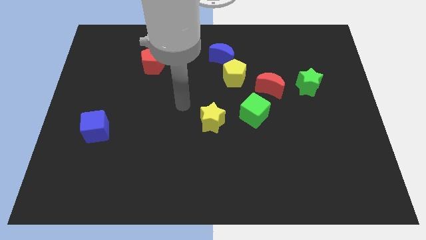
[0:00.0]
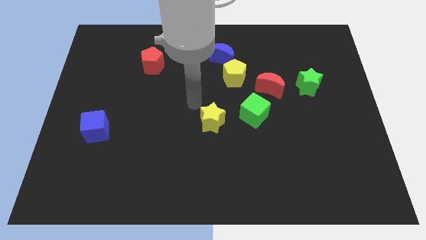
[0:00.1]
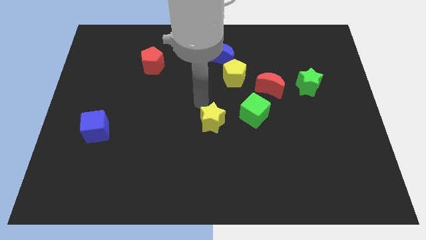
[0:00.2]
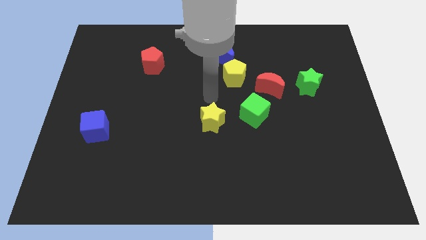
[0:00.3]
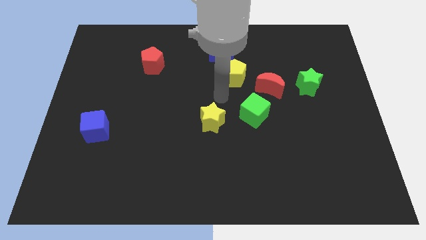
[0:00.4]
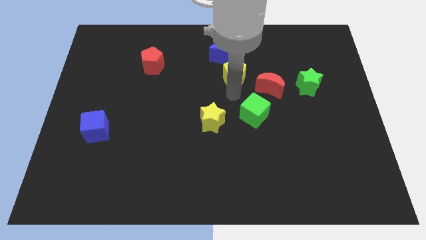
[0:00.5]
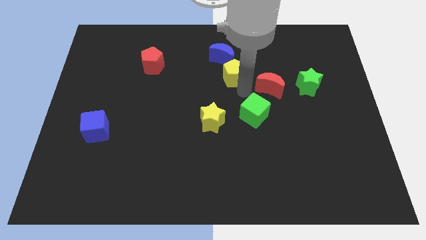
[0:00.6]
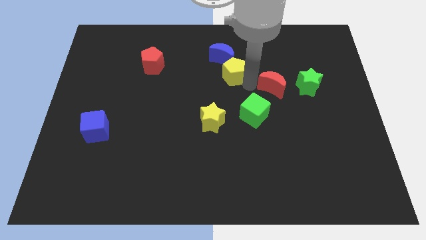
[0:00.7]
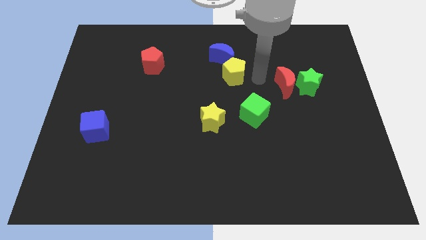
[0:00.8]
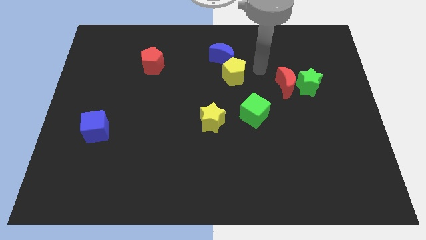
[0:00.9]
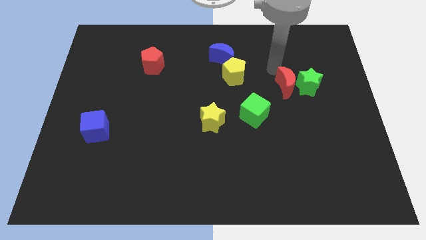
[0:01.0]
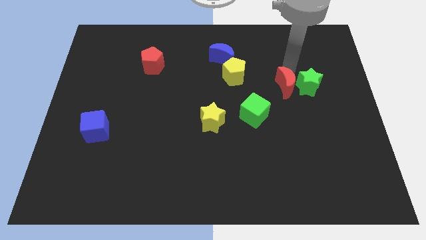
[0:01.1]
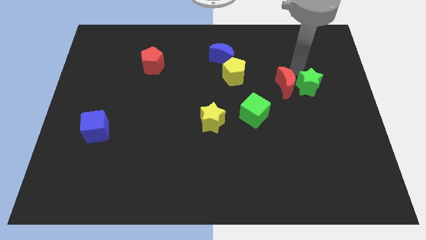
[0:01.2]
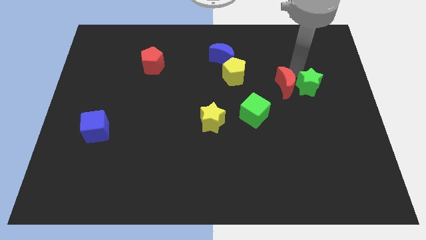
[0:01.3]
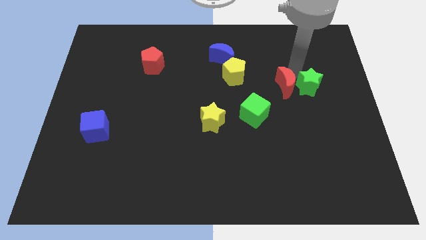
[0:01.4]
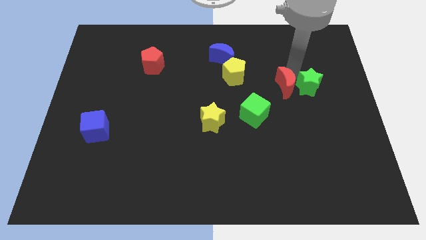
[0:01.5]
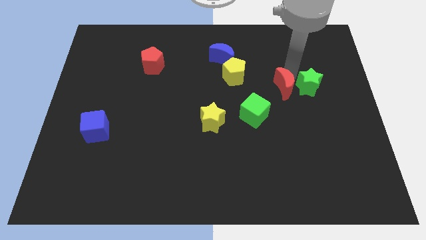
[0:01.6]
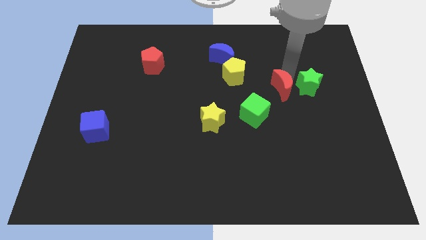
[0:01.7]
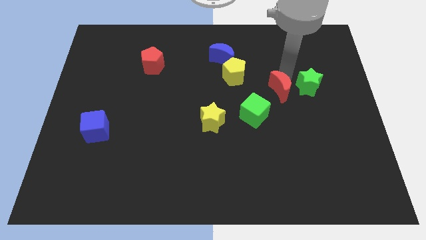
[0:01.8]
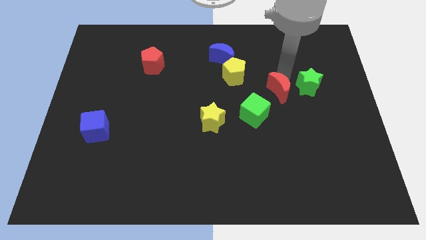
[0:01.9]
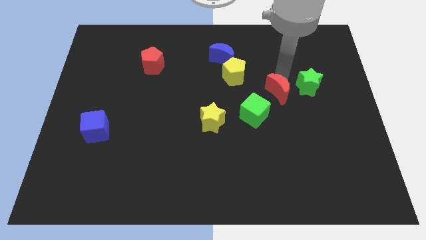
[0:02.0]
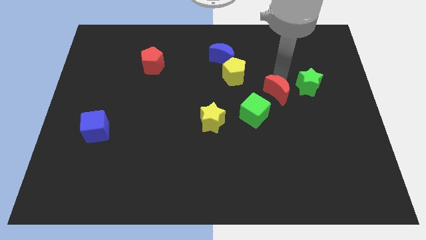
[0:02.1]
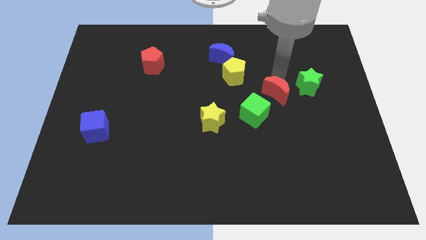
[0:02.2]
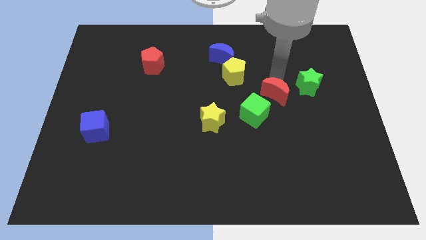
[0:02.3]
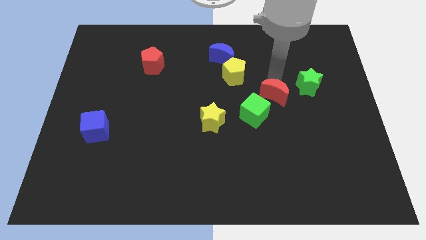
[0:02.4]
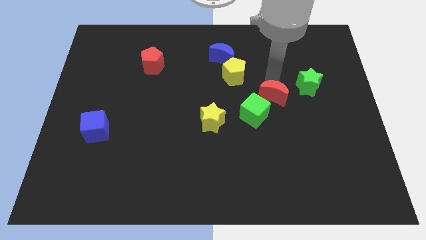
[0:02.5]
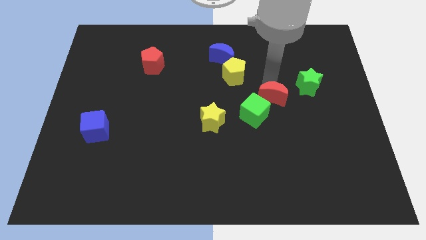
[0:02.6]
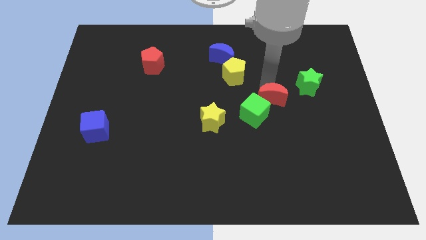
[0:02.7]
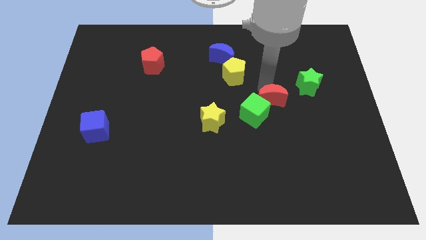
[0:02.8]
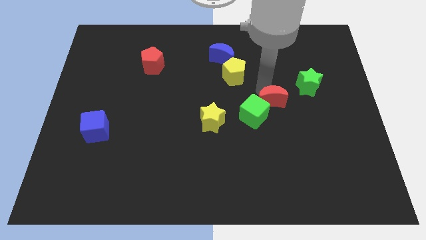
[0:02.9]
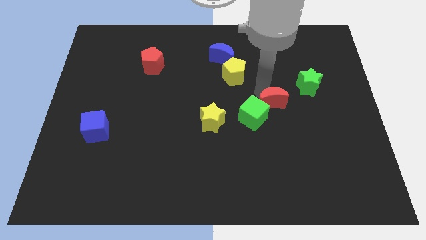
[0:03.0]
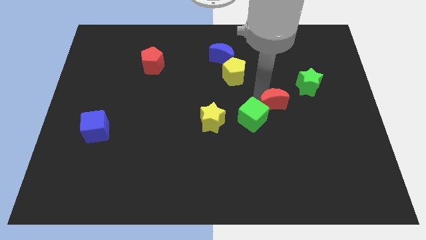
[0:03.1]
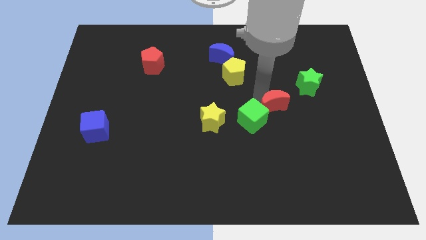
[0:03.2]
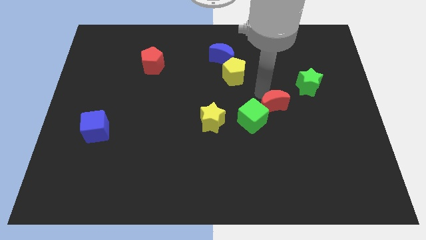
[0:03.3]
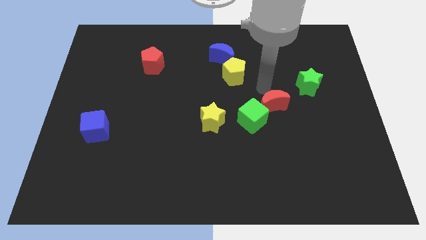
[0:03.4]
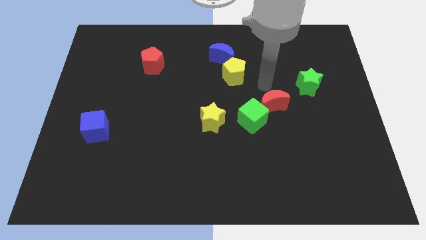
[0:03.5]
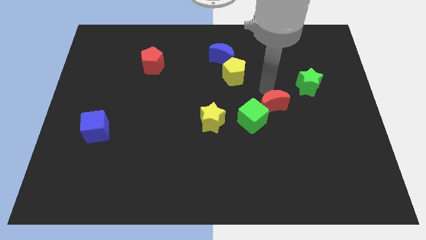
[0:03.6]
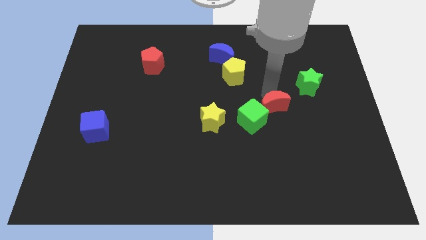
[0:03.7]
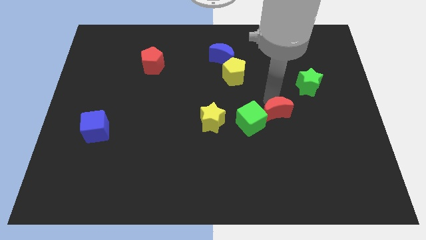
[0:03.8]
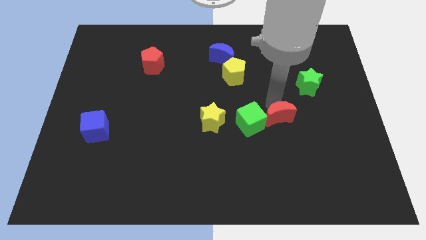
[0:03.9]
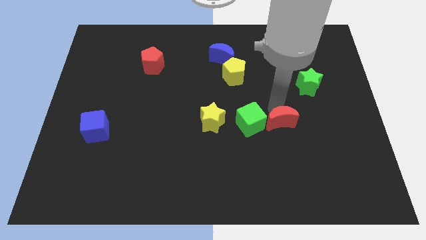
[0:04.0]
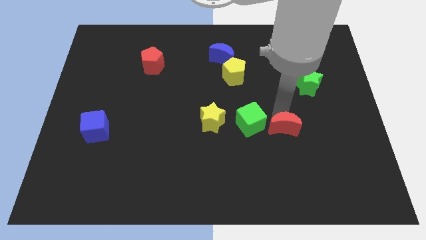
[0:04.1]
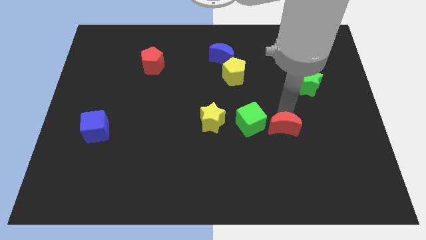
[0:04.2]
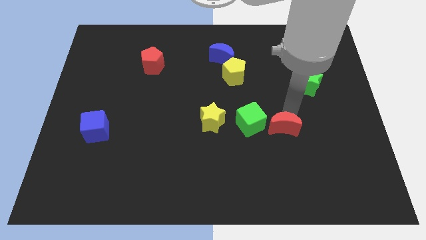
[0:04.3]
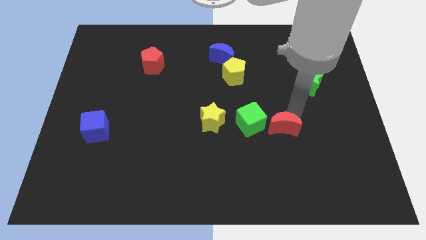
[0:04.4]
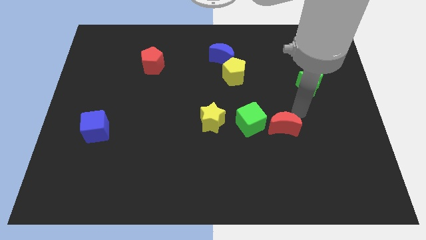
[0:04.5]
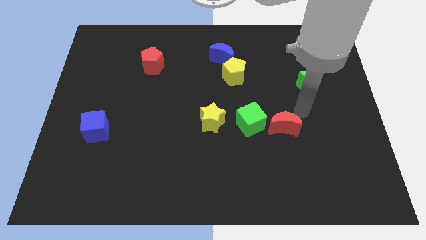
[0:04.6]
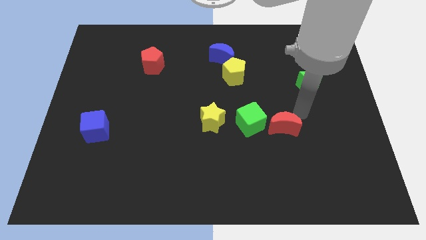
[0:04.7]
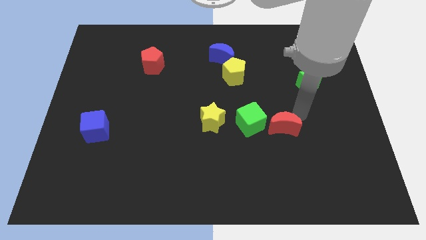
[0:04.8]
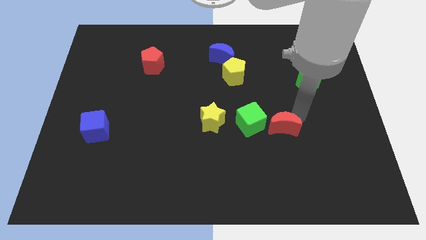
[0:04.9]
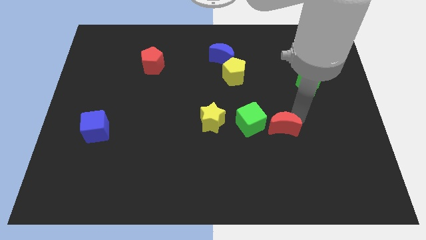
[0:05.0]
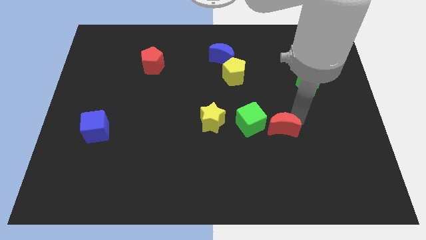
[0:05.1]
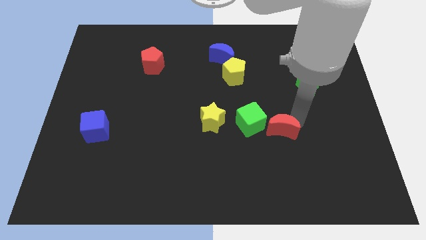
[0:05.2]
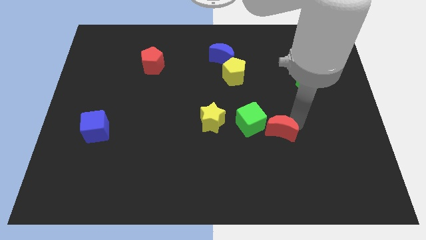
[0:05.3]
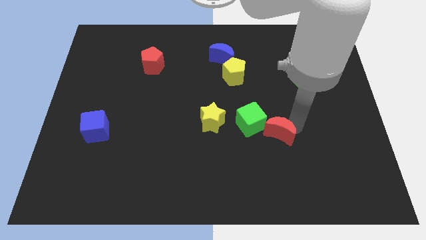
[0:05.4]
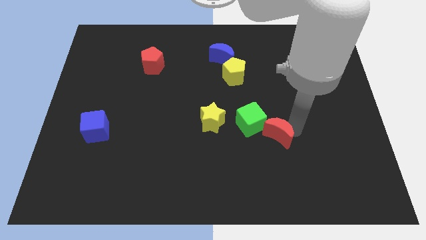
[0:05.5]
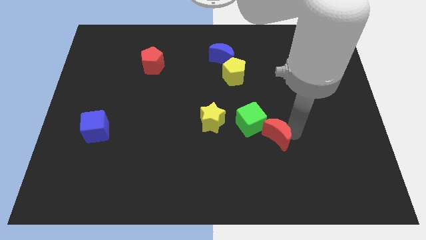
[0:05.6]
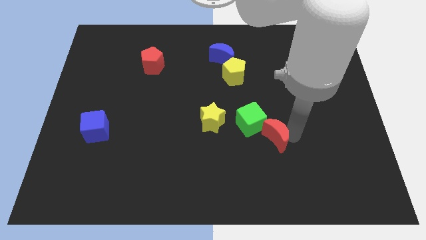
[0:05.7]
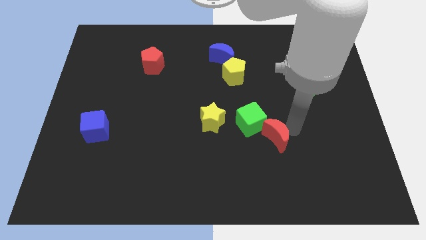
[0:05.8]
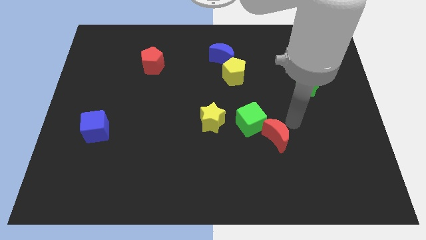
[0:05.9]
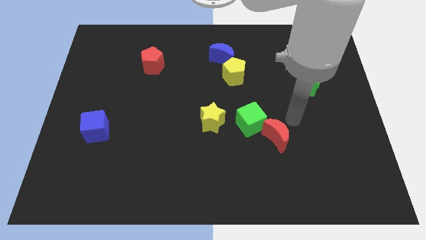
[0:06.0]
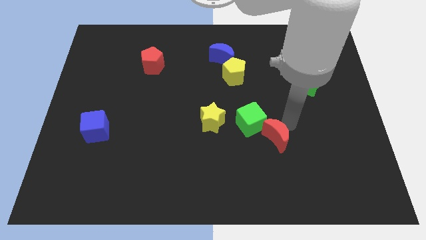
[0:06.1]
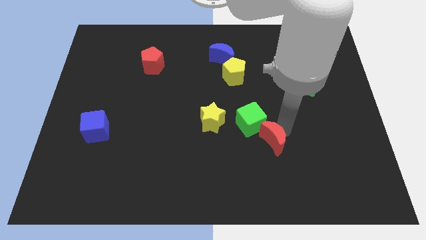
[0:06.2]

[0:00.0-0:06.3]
push the red moon to the bottom of the green cube

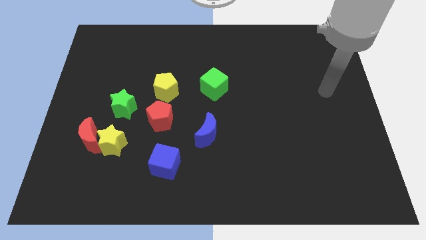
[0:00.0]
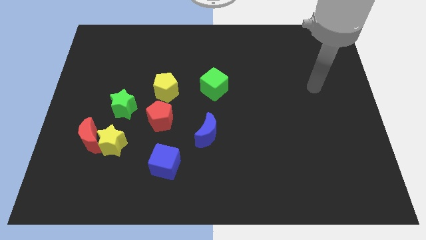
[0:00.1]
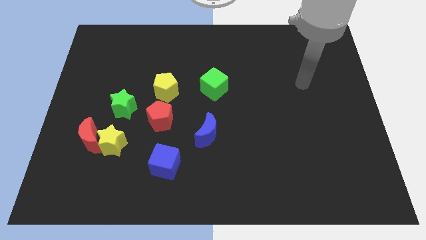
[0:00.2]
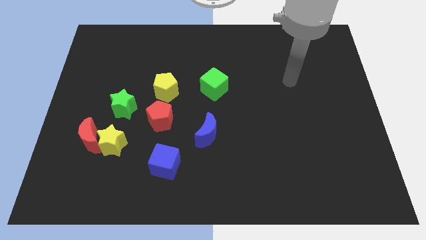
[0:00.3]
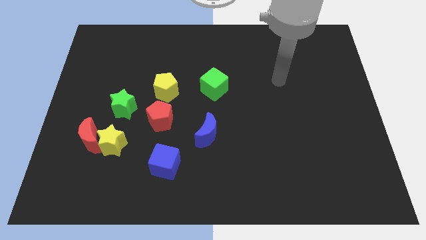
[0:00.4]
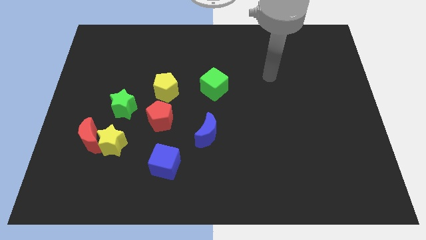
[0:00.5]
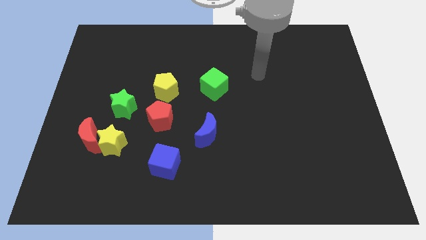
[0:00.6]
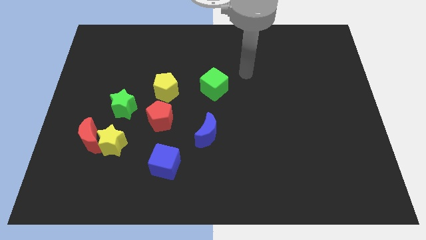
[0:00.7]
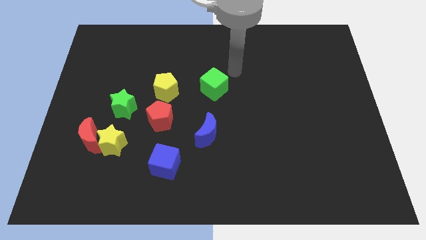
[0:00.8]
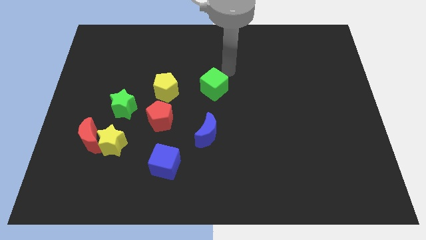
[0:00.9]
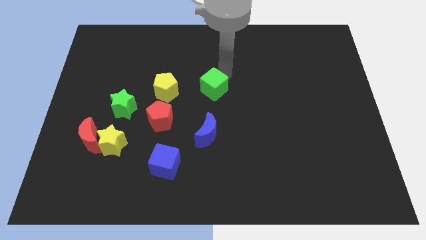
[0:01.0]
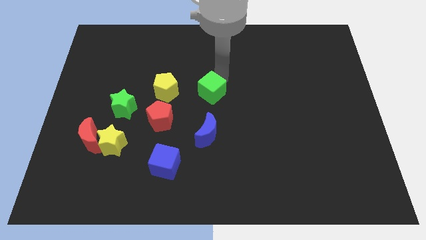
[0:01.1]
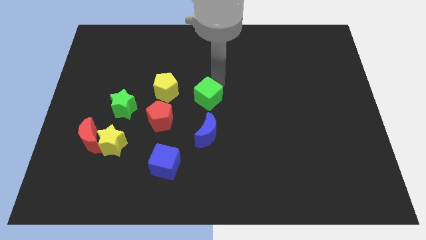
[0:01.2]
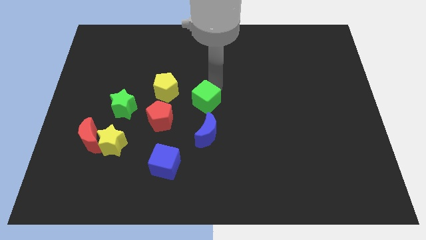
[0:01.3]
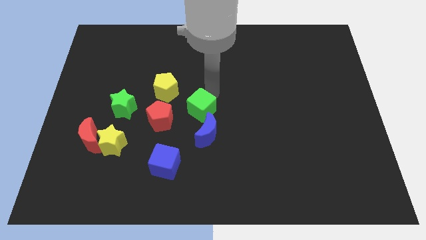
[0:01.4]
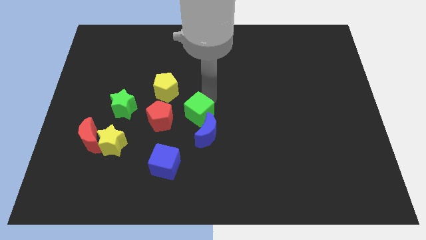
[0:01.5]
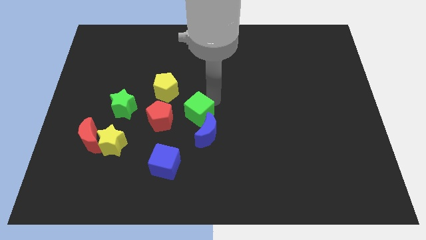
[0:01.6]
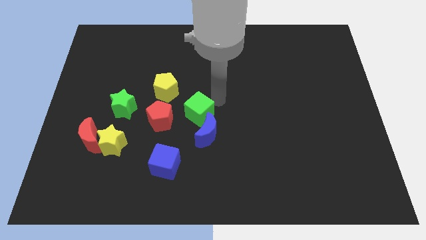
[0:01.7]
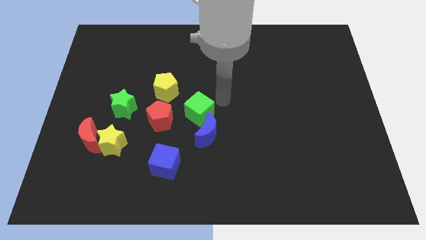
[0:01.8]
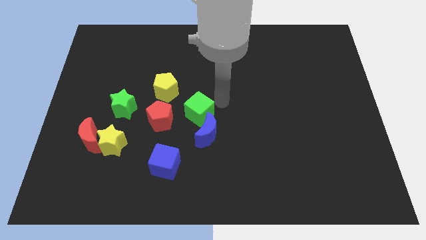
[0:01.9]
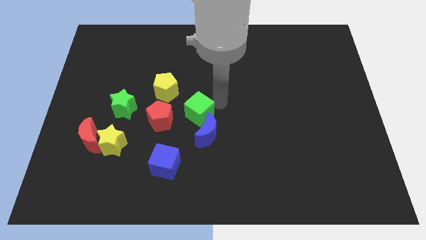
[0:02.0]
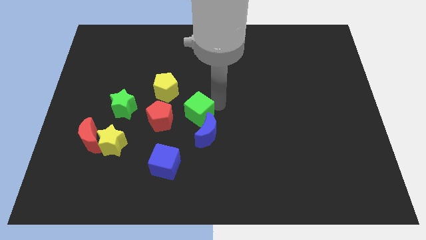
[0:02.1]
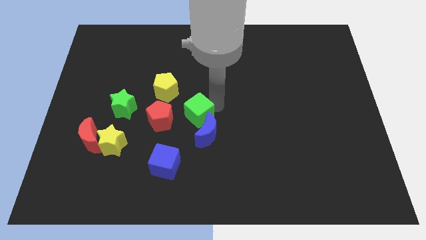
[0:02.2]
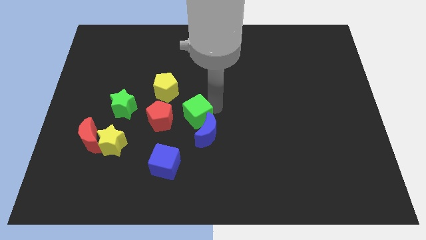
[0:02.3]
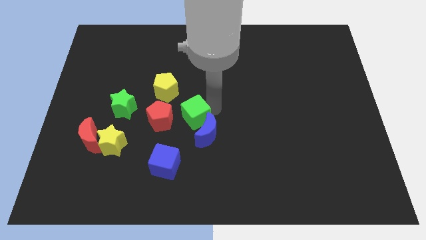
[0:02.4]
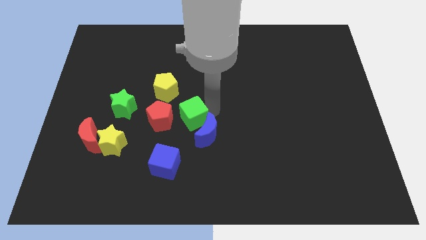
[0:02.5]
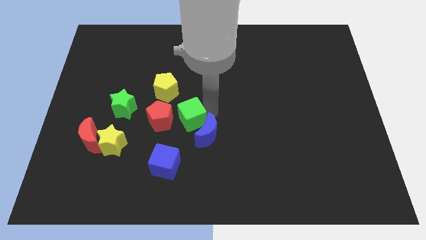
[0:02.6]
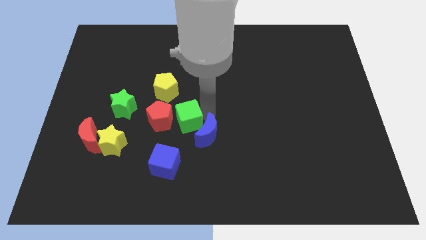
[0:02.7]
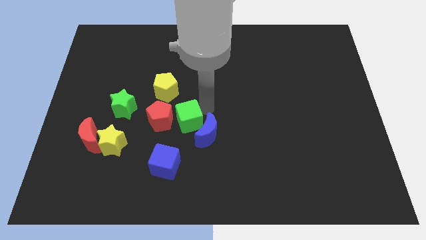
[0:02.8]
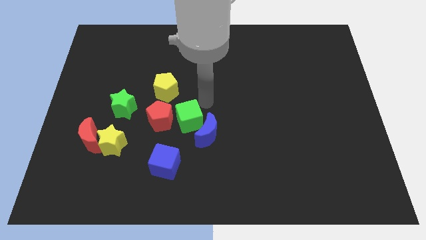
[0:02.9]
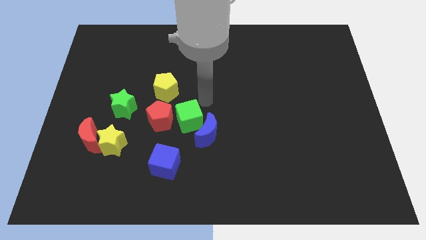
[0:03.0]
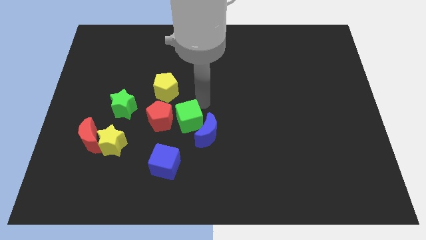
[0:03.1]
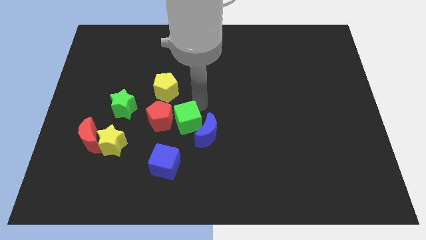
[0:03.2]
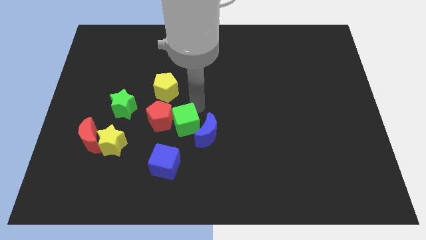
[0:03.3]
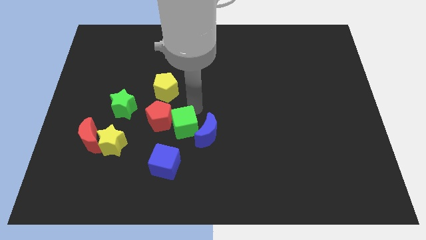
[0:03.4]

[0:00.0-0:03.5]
slide the green cube to the bottom side of the yellow pentagon
